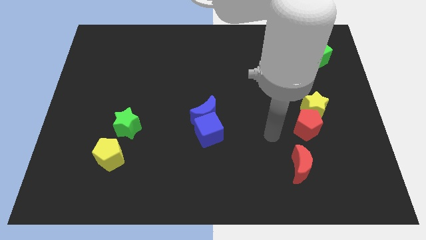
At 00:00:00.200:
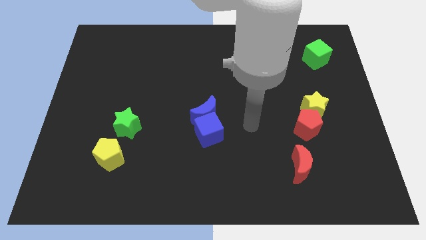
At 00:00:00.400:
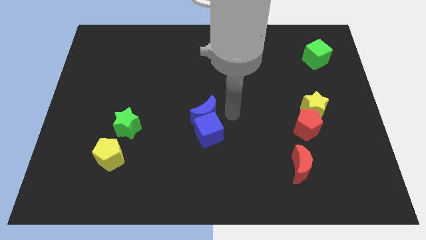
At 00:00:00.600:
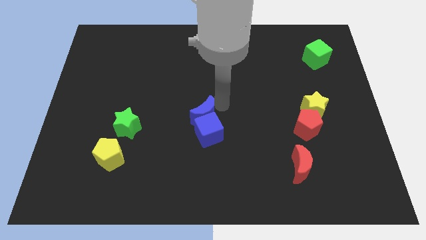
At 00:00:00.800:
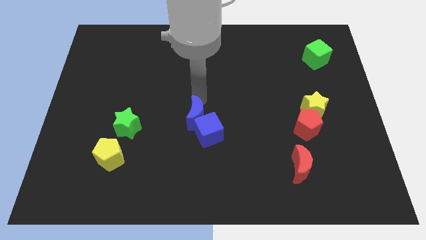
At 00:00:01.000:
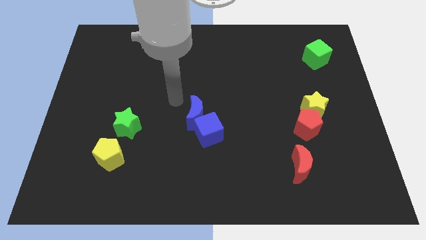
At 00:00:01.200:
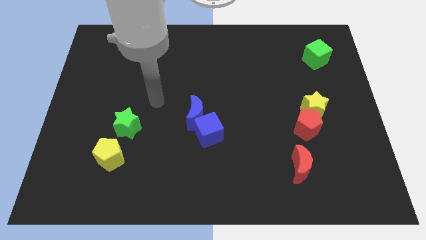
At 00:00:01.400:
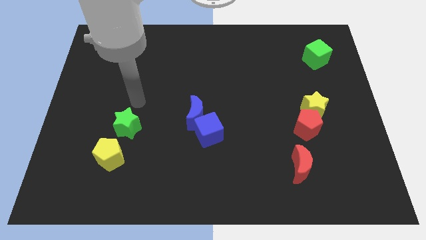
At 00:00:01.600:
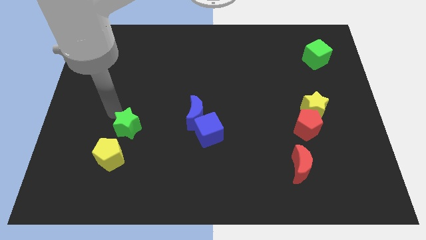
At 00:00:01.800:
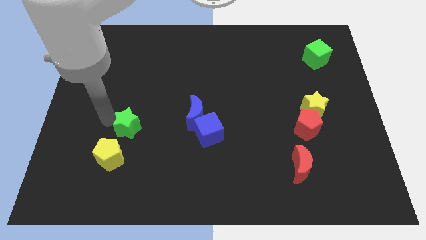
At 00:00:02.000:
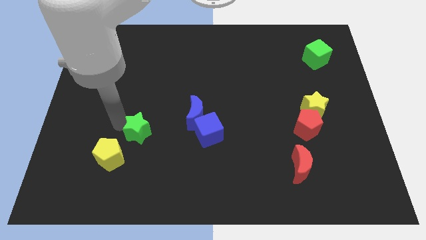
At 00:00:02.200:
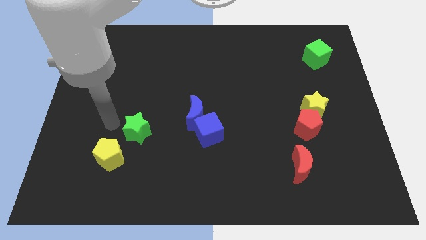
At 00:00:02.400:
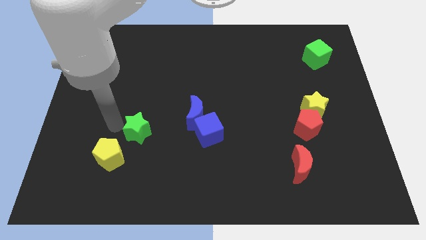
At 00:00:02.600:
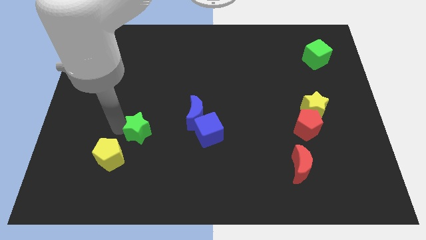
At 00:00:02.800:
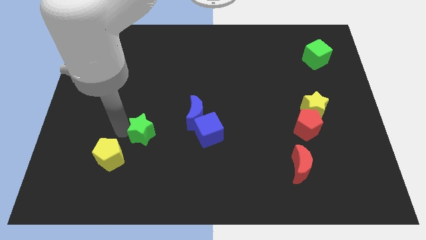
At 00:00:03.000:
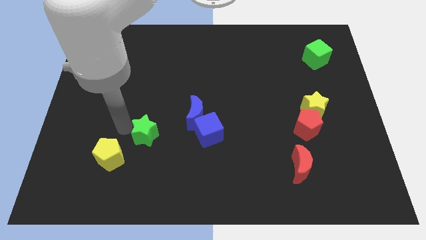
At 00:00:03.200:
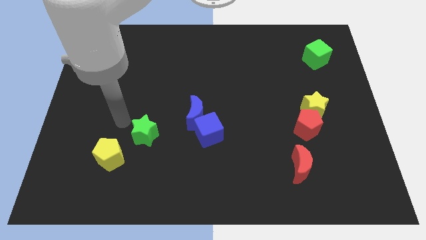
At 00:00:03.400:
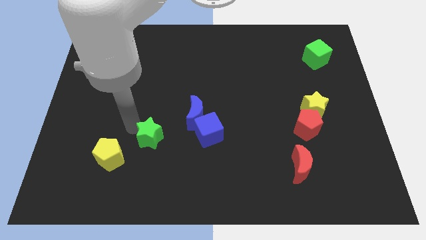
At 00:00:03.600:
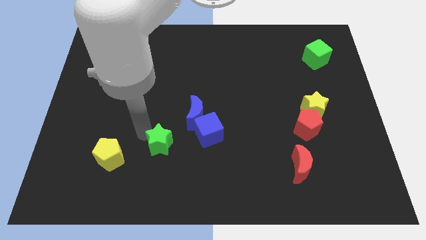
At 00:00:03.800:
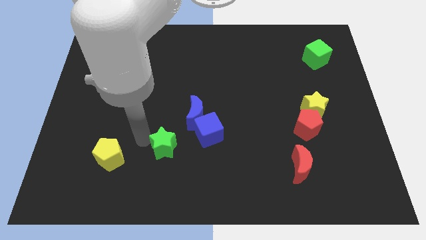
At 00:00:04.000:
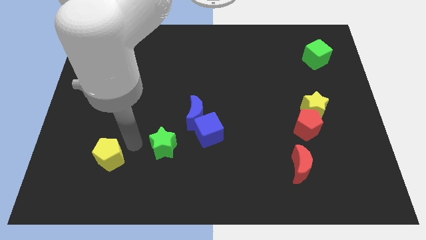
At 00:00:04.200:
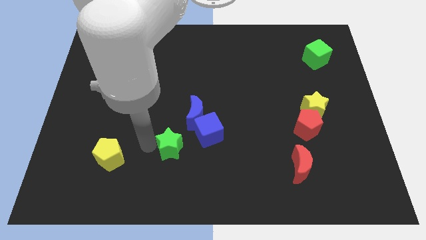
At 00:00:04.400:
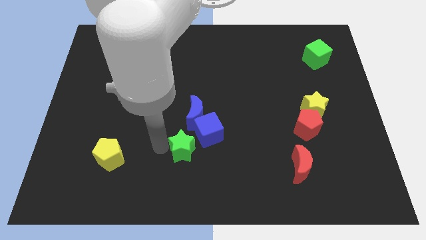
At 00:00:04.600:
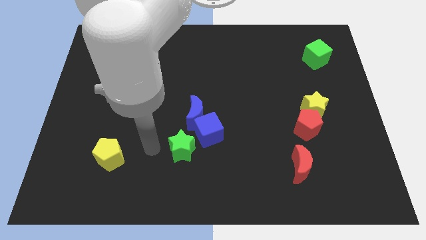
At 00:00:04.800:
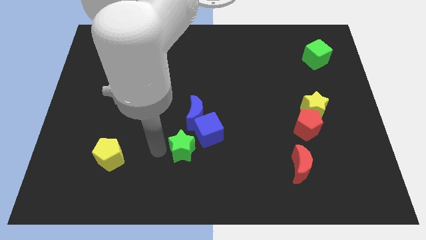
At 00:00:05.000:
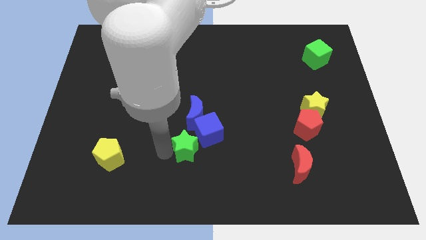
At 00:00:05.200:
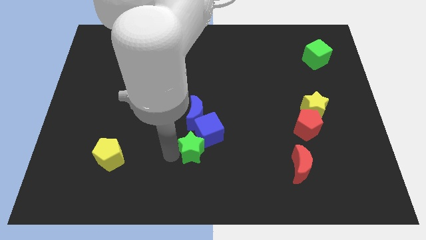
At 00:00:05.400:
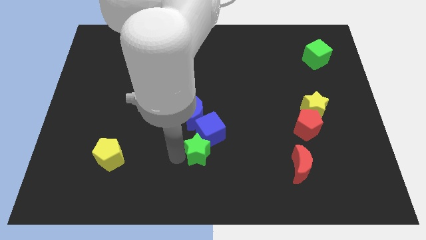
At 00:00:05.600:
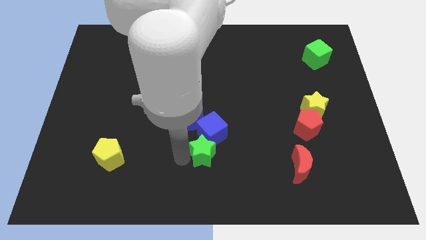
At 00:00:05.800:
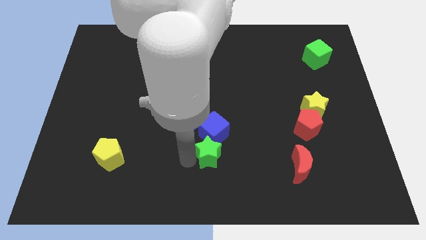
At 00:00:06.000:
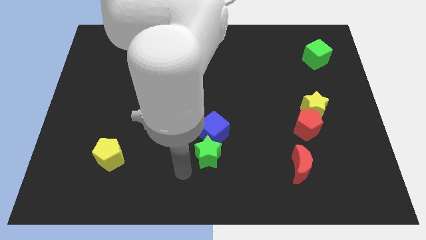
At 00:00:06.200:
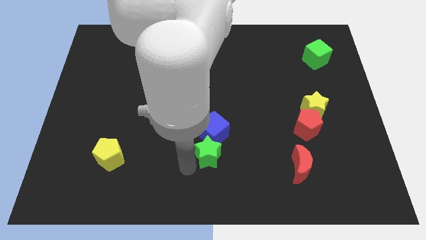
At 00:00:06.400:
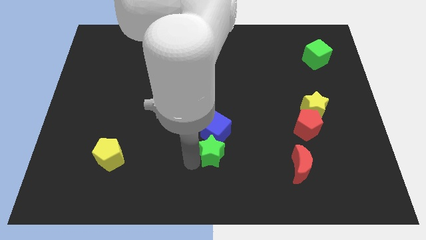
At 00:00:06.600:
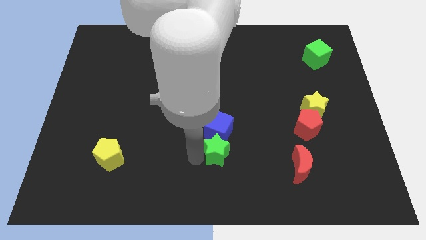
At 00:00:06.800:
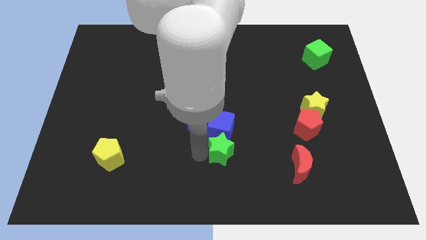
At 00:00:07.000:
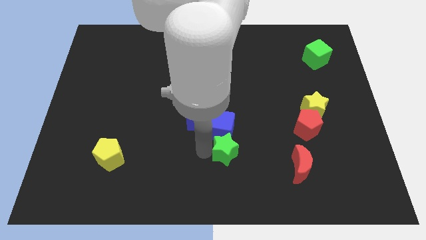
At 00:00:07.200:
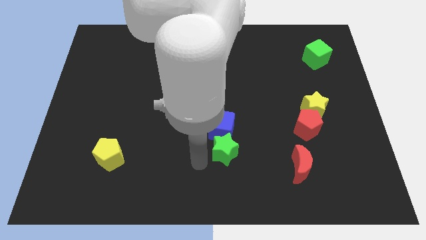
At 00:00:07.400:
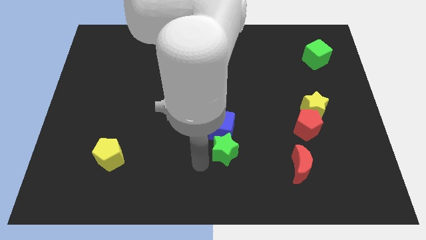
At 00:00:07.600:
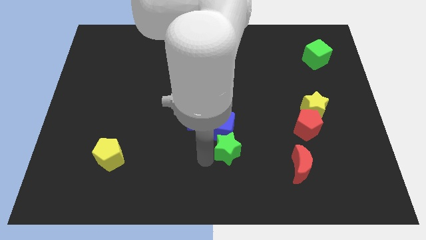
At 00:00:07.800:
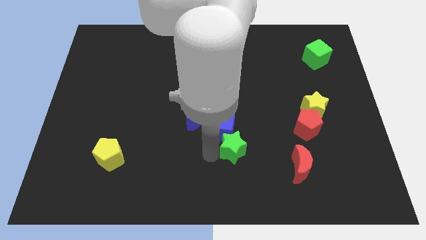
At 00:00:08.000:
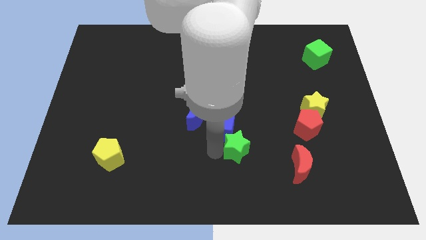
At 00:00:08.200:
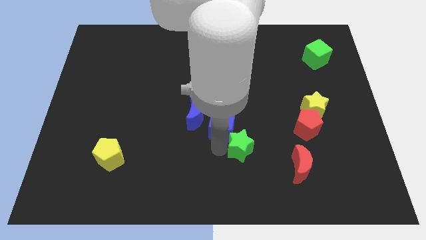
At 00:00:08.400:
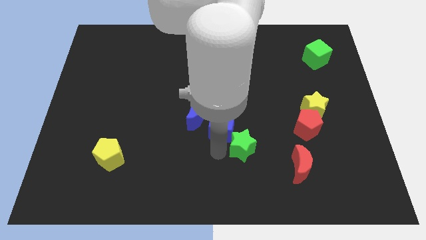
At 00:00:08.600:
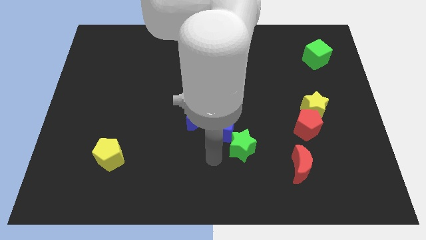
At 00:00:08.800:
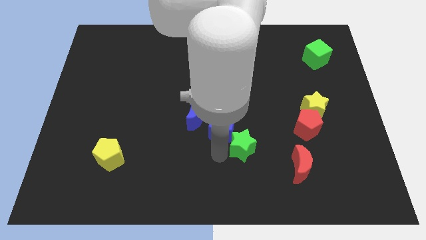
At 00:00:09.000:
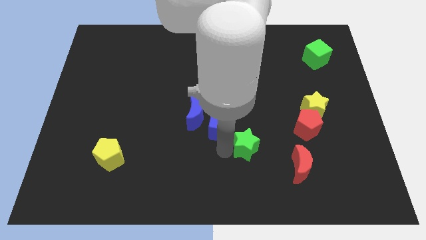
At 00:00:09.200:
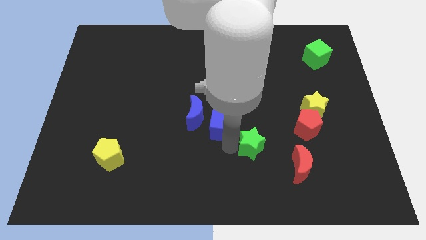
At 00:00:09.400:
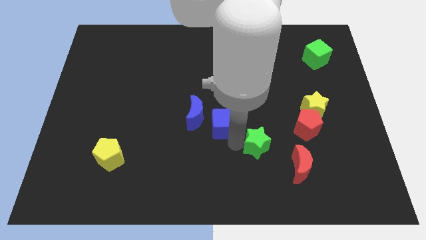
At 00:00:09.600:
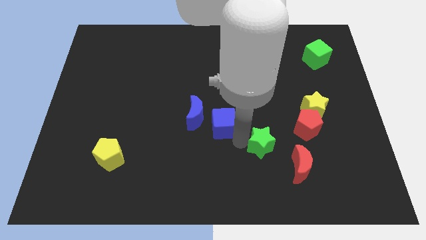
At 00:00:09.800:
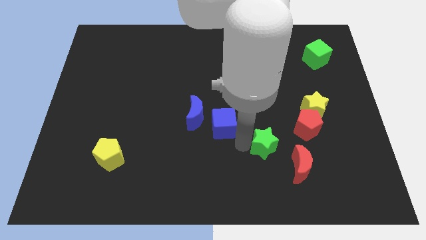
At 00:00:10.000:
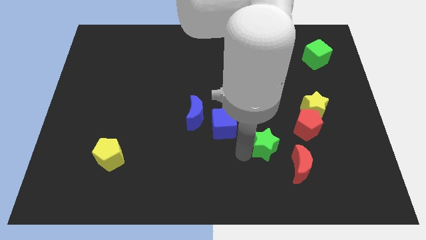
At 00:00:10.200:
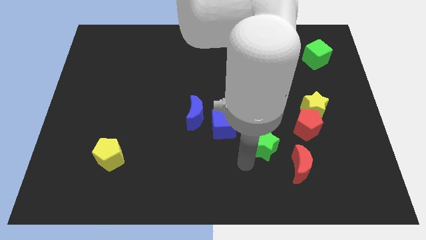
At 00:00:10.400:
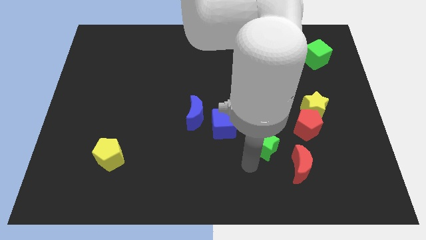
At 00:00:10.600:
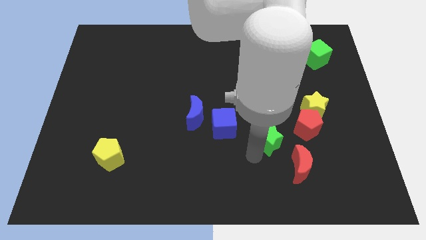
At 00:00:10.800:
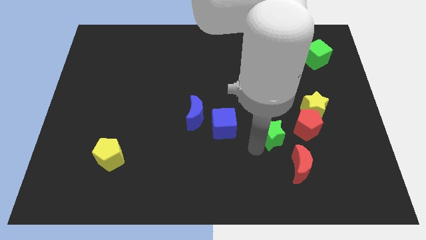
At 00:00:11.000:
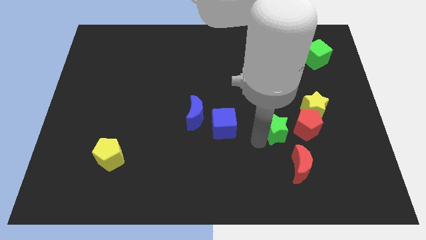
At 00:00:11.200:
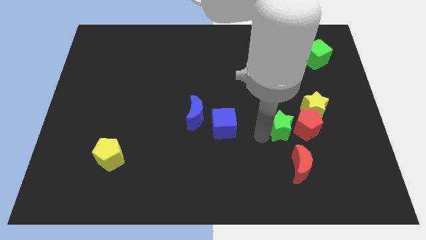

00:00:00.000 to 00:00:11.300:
slide the green star towards the red pentagon

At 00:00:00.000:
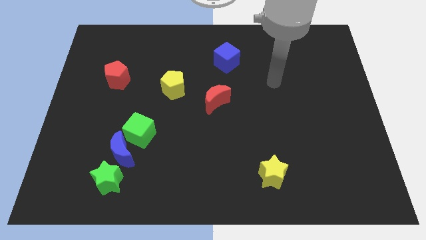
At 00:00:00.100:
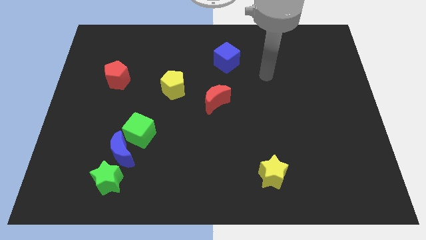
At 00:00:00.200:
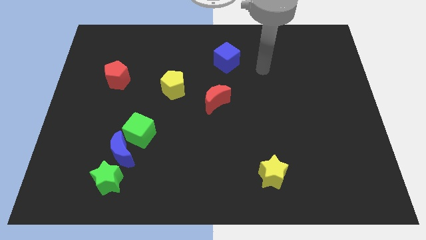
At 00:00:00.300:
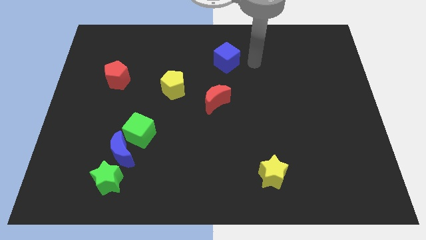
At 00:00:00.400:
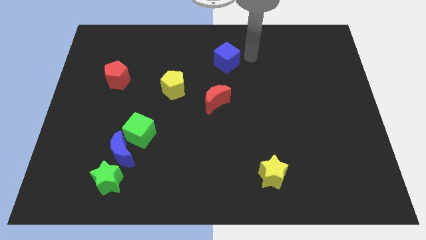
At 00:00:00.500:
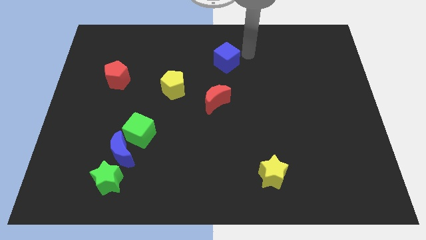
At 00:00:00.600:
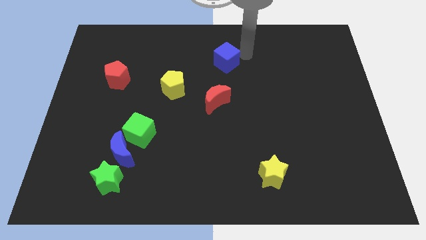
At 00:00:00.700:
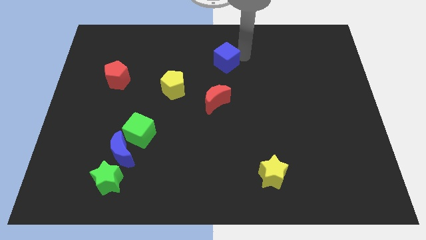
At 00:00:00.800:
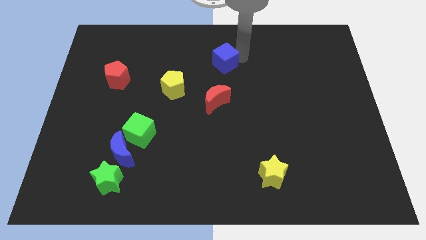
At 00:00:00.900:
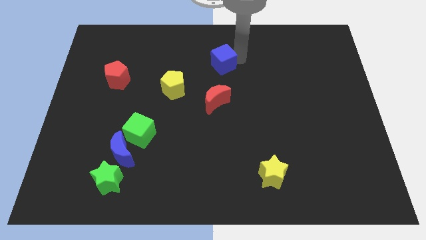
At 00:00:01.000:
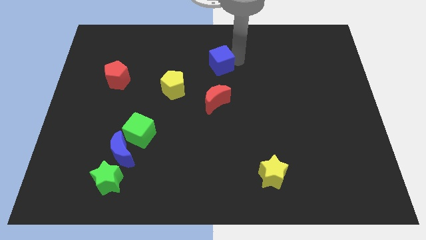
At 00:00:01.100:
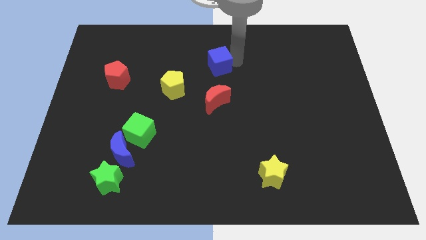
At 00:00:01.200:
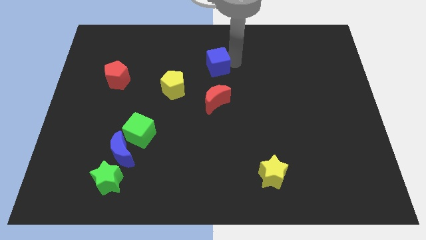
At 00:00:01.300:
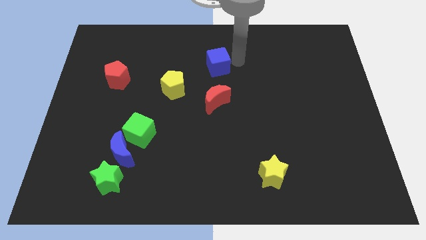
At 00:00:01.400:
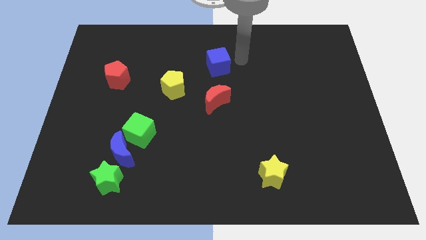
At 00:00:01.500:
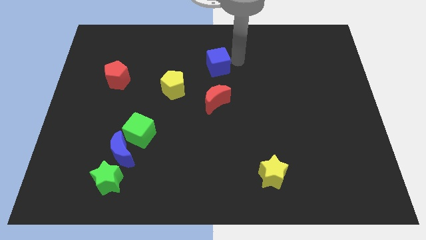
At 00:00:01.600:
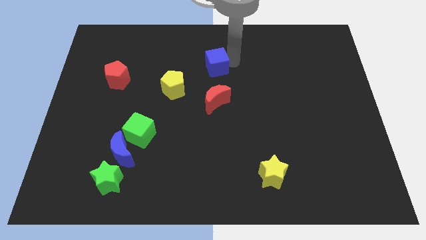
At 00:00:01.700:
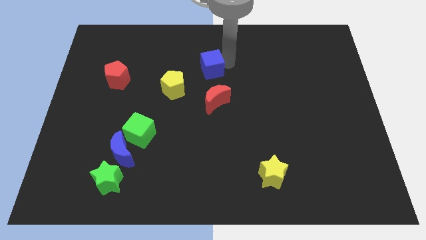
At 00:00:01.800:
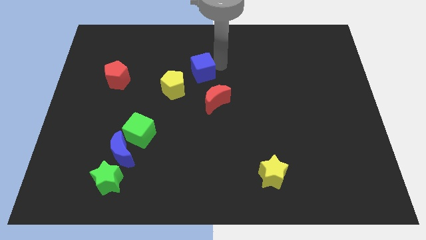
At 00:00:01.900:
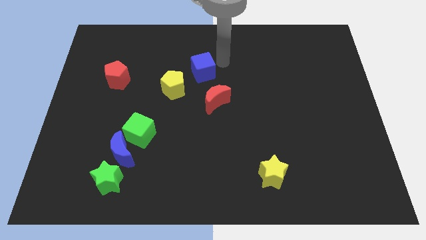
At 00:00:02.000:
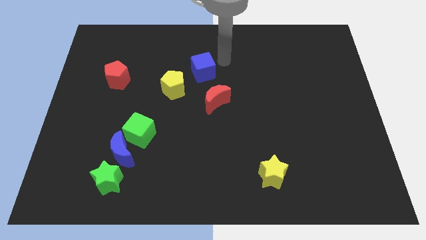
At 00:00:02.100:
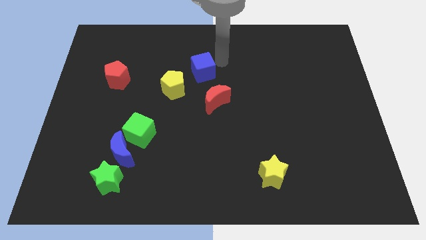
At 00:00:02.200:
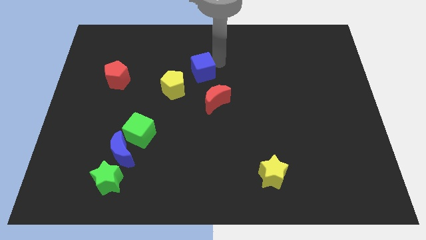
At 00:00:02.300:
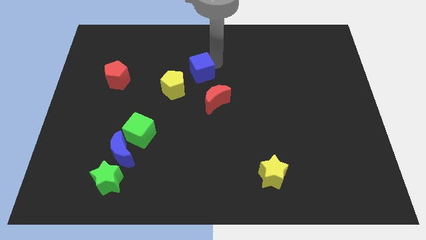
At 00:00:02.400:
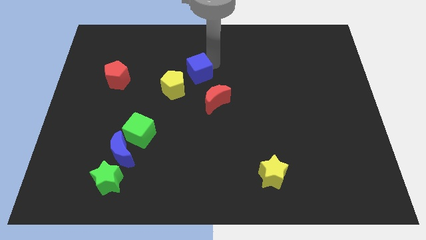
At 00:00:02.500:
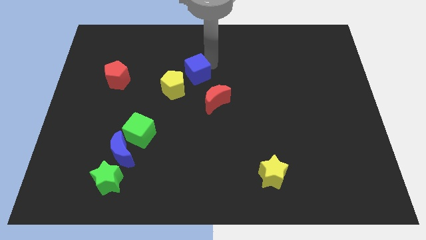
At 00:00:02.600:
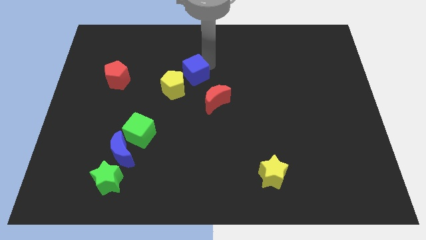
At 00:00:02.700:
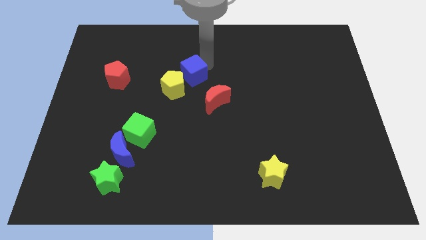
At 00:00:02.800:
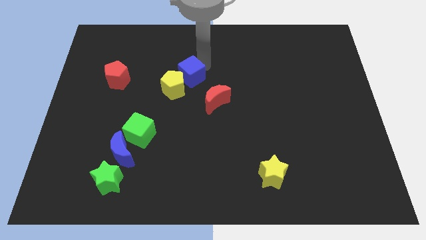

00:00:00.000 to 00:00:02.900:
slide the blue cube close to the yellow pentagon
